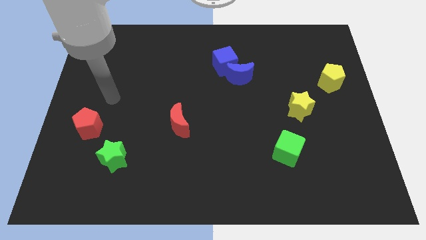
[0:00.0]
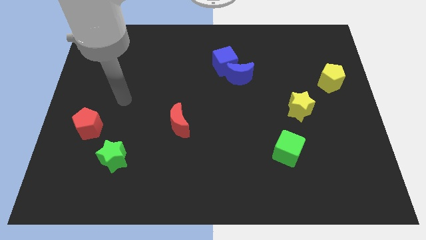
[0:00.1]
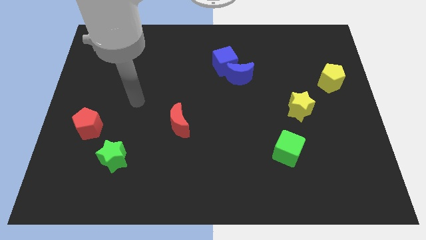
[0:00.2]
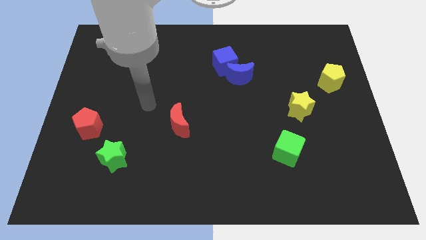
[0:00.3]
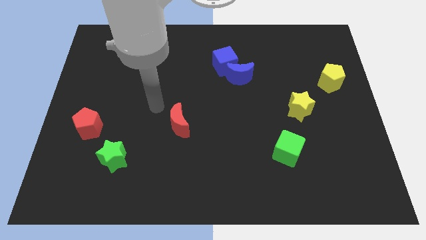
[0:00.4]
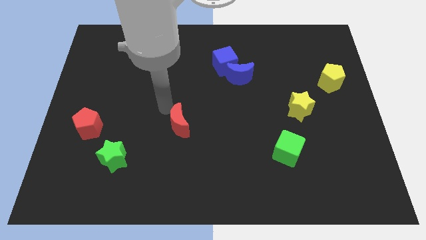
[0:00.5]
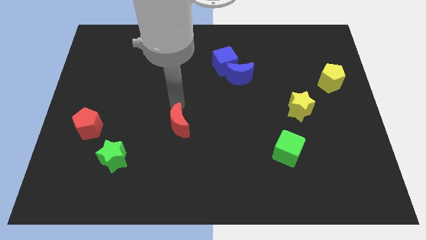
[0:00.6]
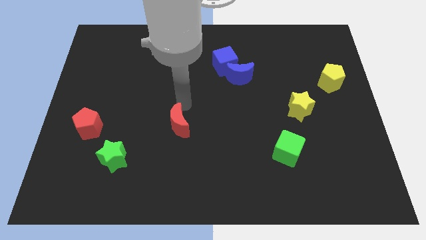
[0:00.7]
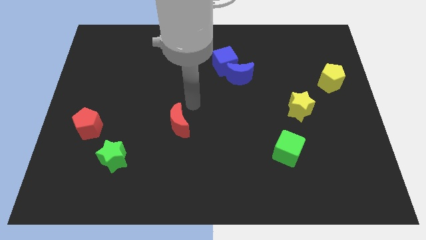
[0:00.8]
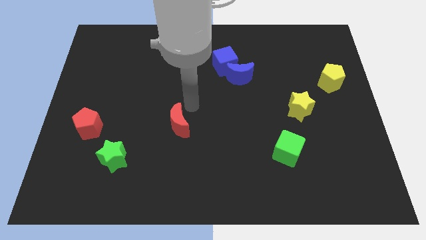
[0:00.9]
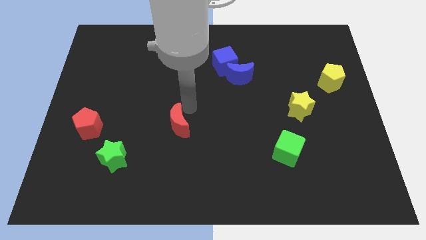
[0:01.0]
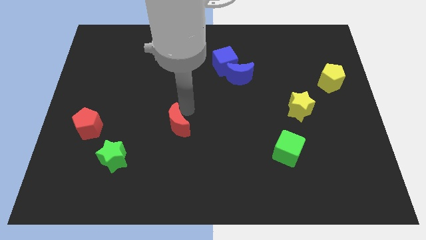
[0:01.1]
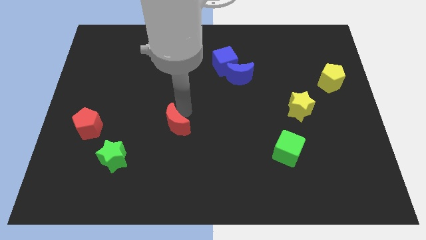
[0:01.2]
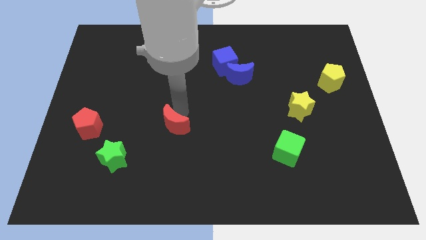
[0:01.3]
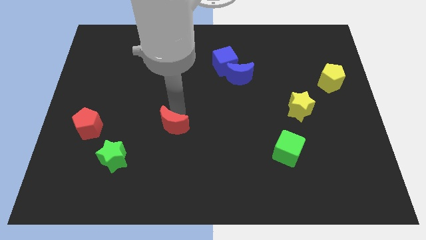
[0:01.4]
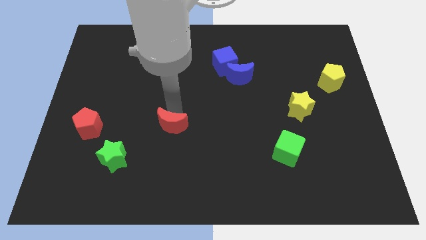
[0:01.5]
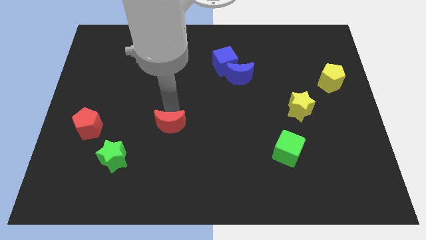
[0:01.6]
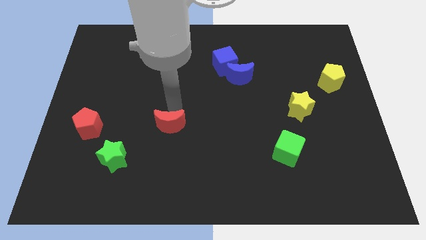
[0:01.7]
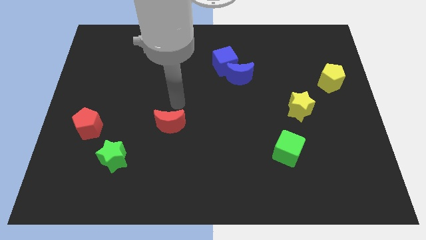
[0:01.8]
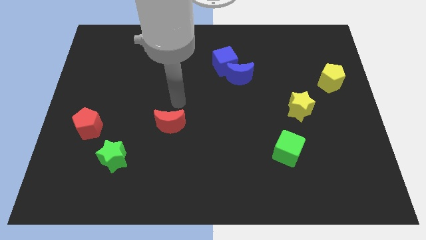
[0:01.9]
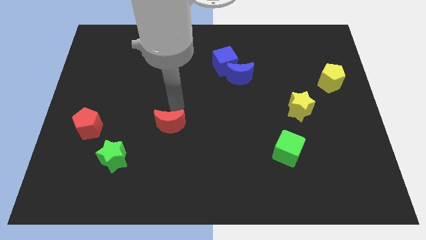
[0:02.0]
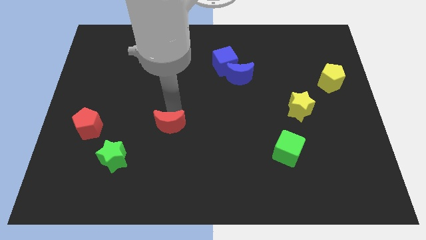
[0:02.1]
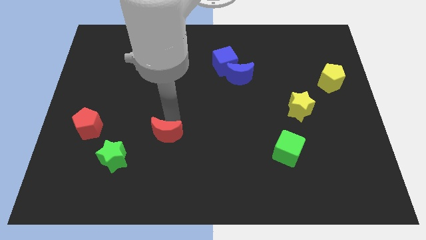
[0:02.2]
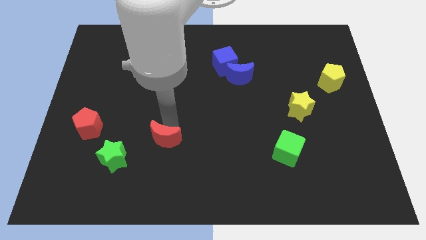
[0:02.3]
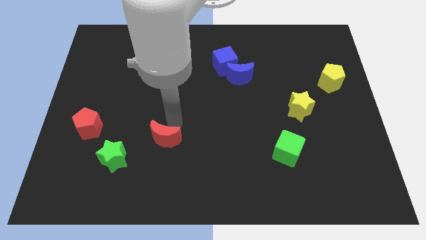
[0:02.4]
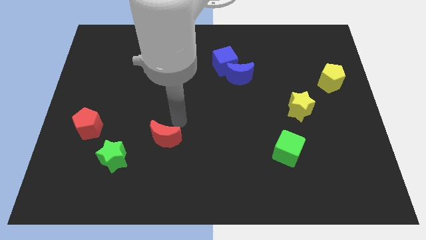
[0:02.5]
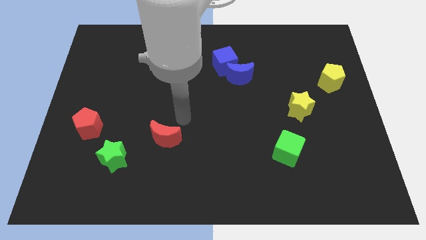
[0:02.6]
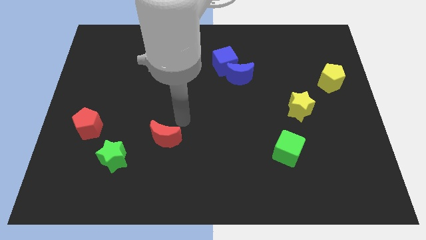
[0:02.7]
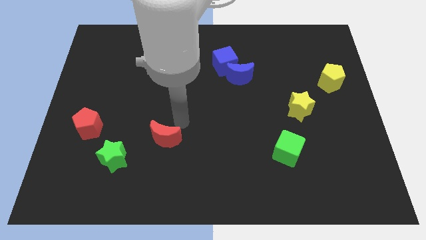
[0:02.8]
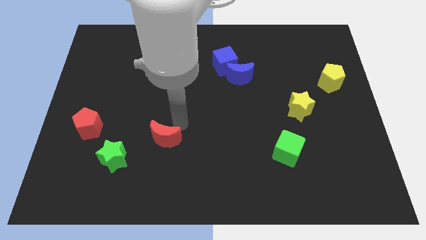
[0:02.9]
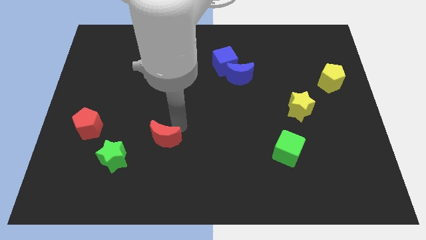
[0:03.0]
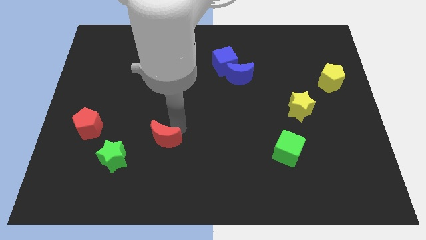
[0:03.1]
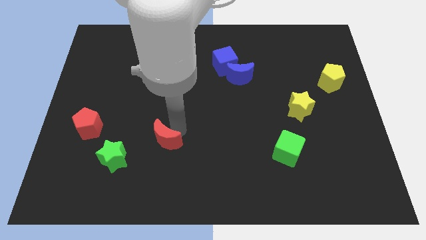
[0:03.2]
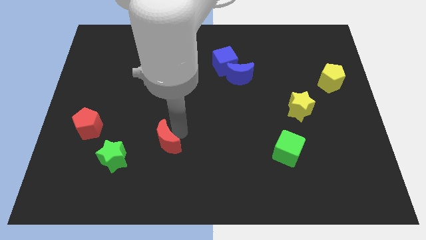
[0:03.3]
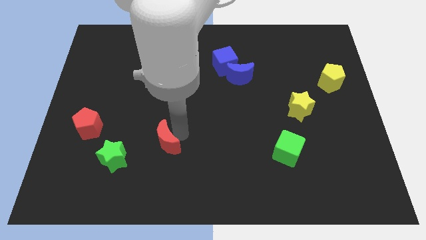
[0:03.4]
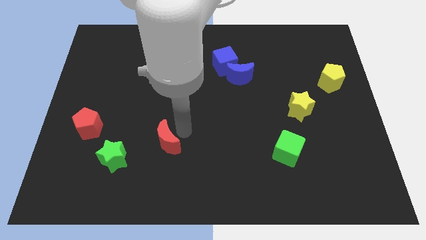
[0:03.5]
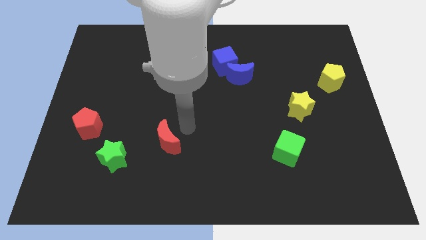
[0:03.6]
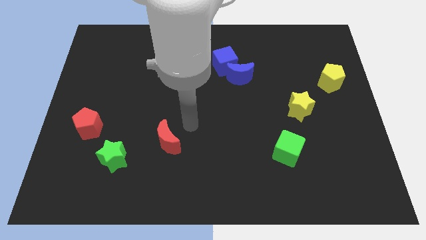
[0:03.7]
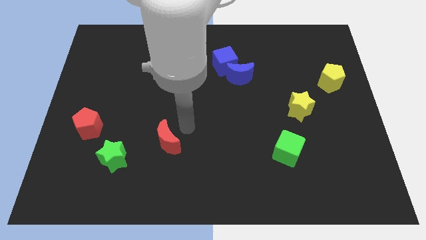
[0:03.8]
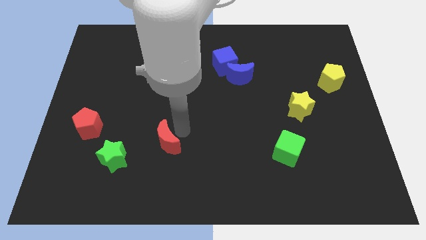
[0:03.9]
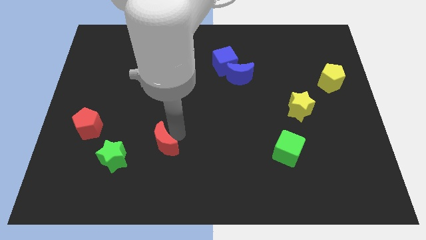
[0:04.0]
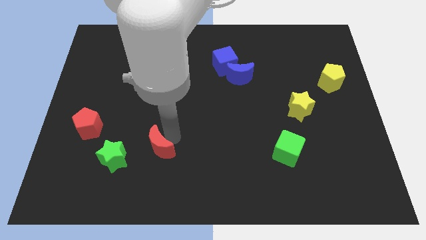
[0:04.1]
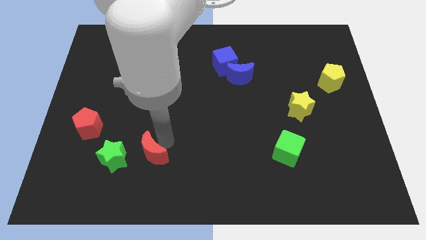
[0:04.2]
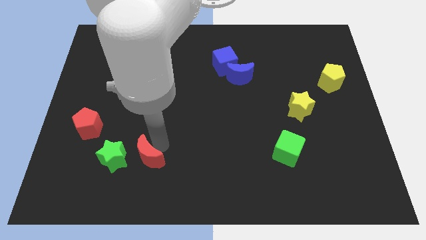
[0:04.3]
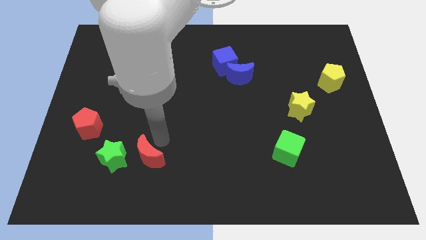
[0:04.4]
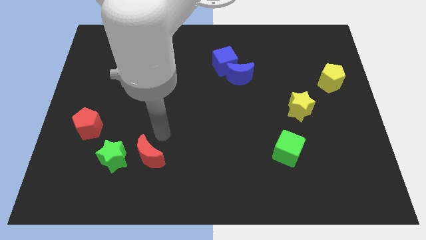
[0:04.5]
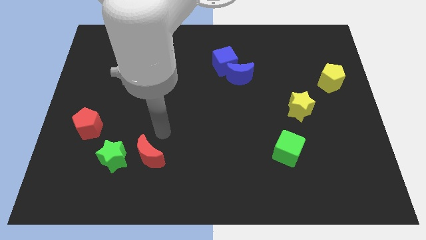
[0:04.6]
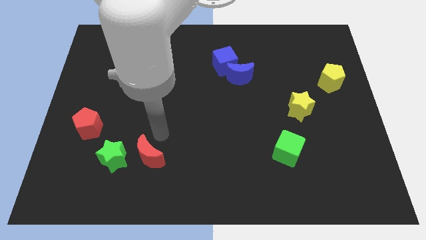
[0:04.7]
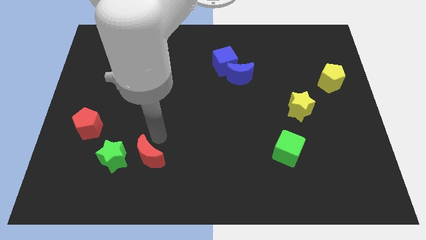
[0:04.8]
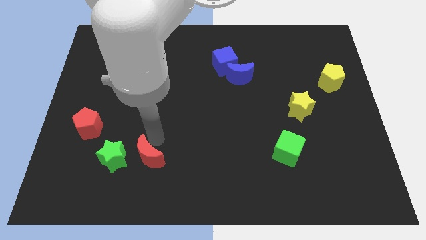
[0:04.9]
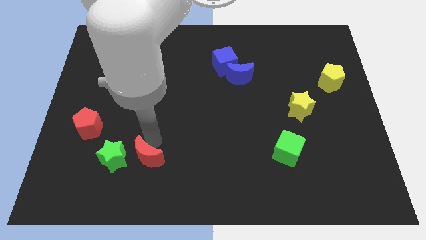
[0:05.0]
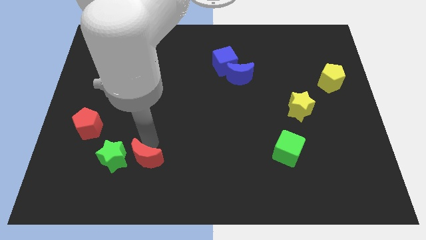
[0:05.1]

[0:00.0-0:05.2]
push the red moon diagonally down and to the right of the green star

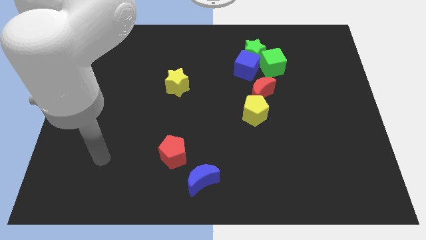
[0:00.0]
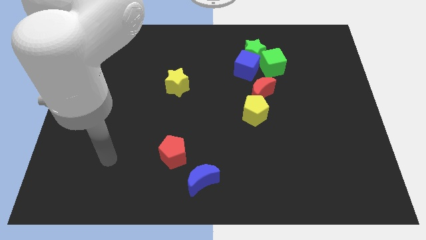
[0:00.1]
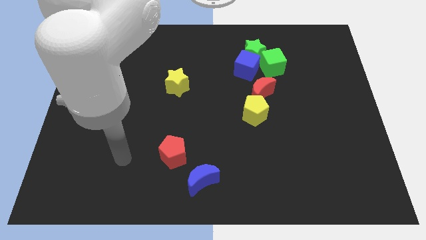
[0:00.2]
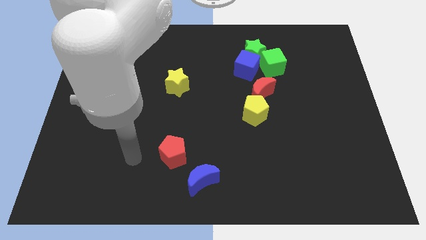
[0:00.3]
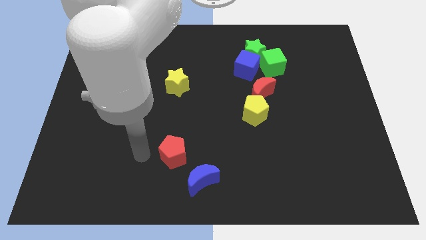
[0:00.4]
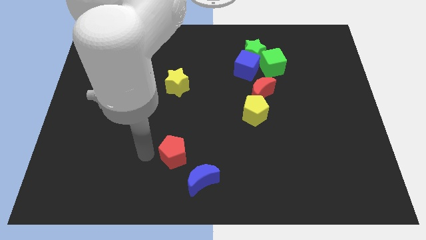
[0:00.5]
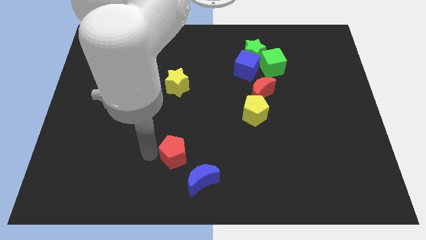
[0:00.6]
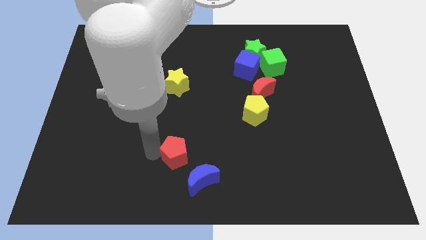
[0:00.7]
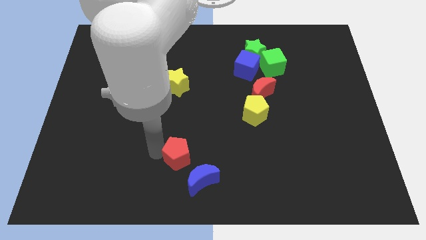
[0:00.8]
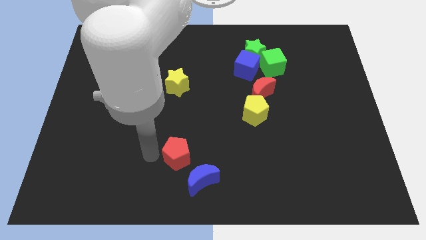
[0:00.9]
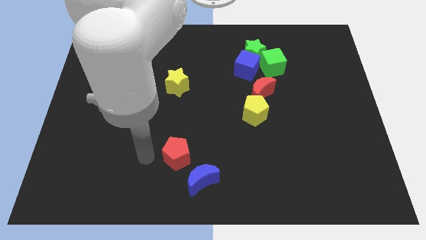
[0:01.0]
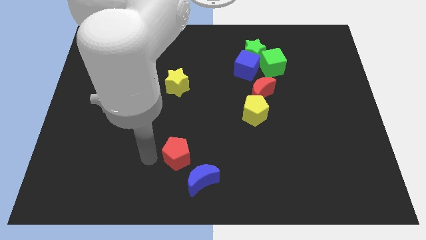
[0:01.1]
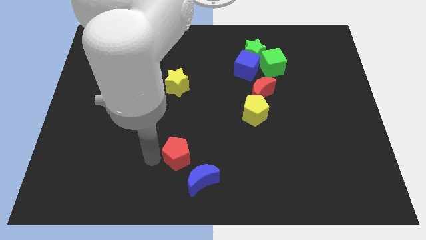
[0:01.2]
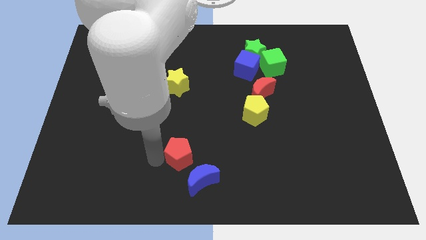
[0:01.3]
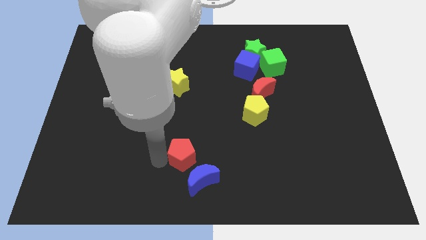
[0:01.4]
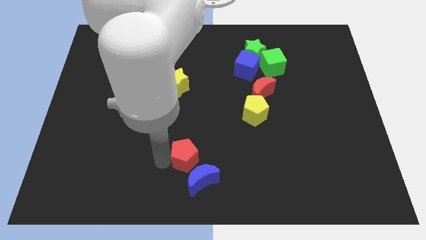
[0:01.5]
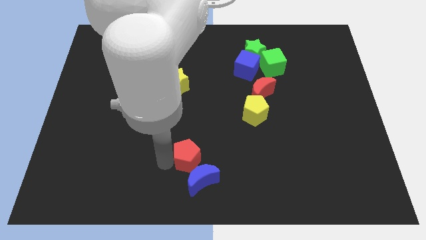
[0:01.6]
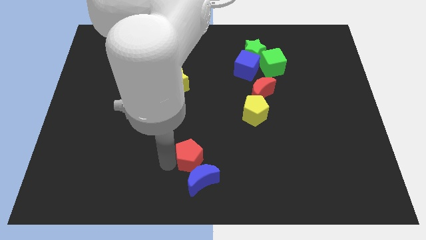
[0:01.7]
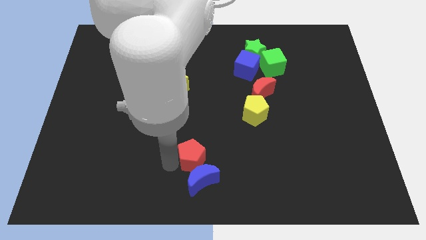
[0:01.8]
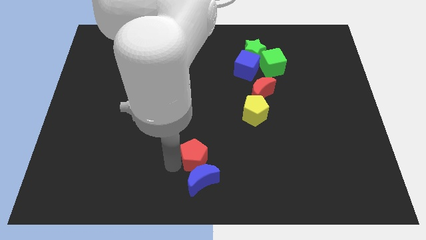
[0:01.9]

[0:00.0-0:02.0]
move the red pentagon to the top right of the blue moon
